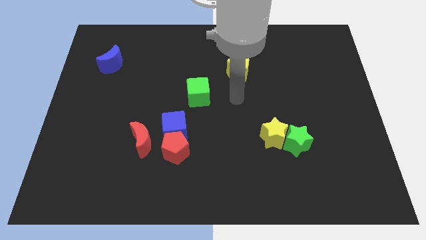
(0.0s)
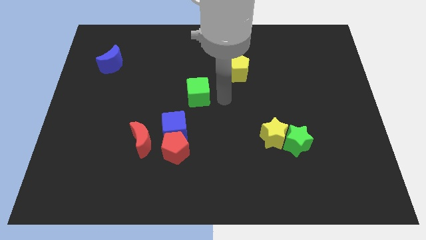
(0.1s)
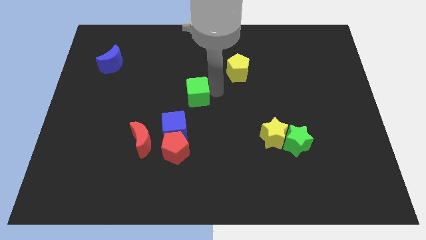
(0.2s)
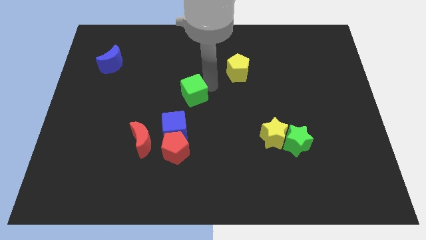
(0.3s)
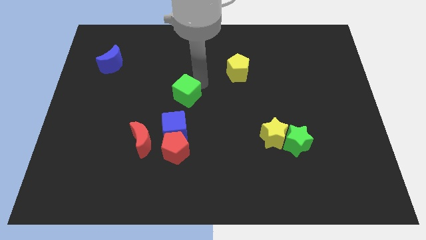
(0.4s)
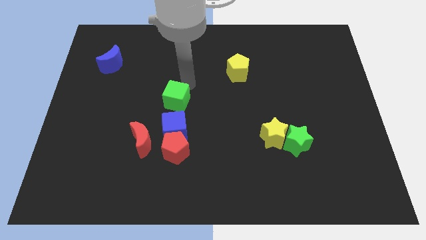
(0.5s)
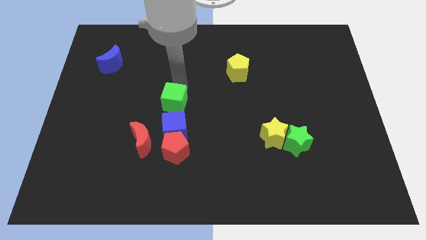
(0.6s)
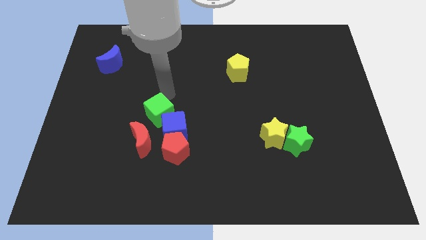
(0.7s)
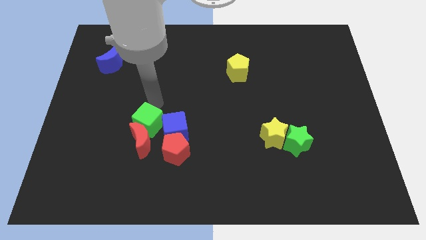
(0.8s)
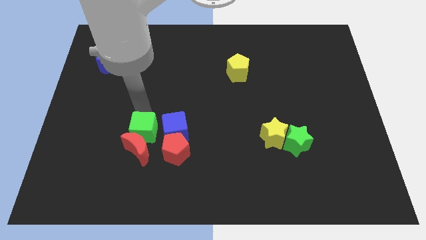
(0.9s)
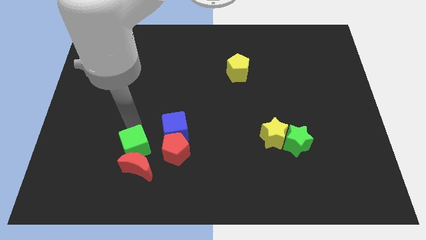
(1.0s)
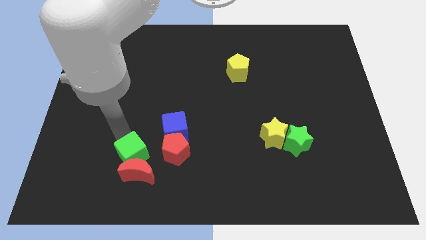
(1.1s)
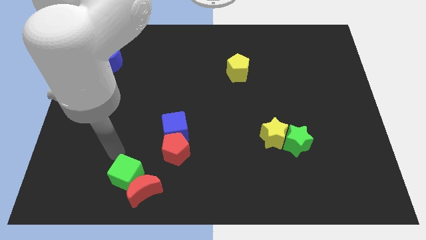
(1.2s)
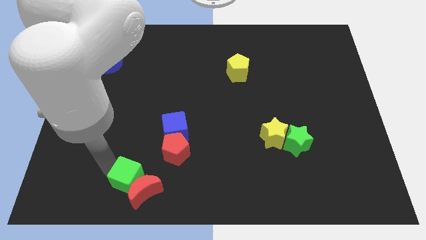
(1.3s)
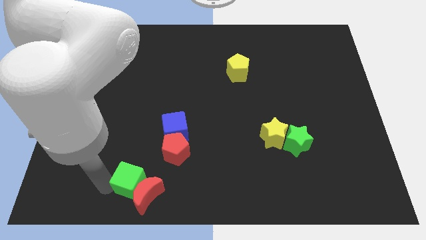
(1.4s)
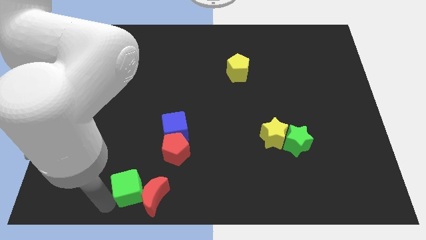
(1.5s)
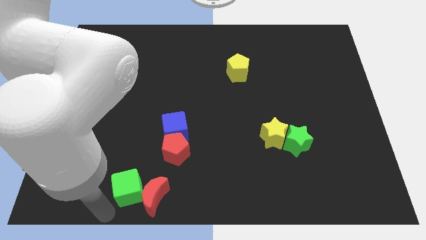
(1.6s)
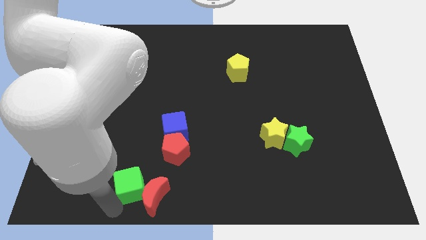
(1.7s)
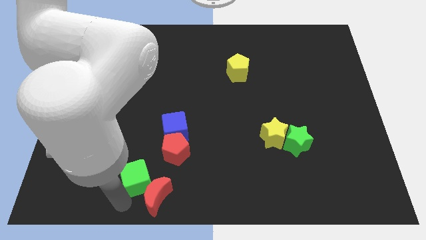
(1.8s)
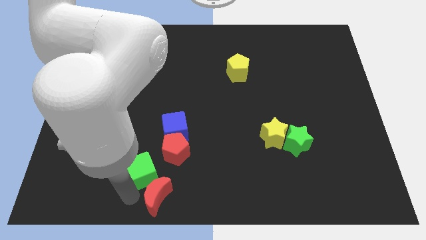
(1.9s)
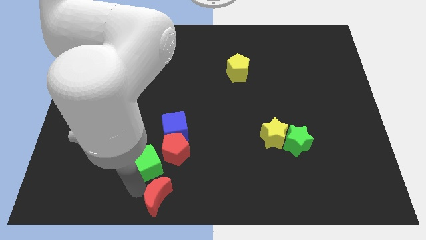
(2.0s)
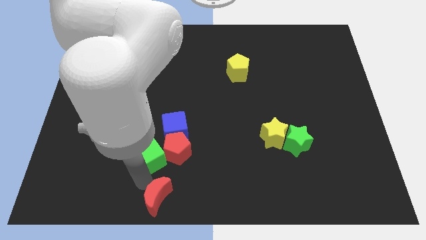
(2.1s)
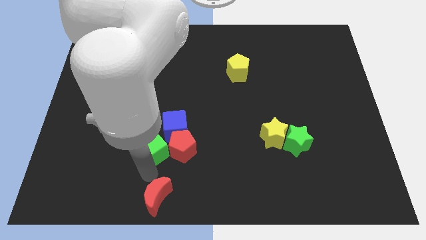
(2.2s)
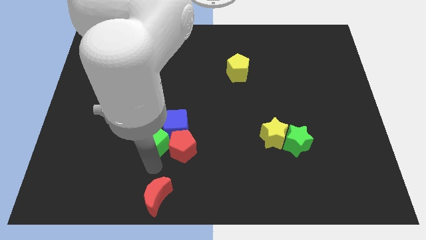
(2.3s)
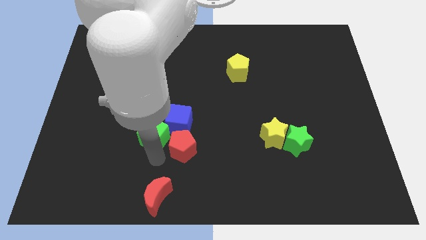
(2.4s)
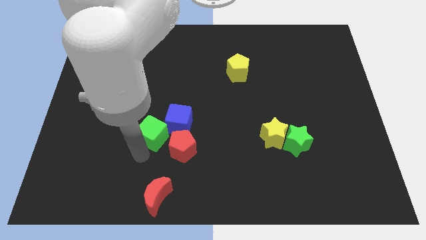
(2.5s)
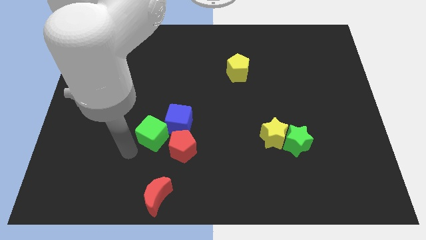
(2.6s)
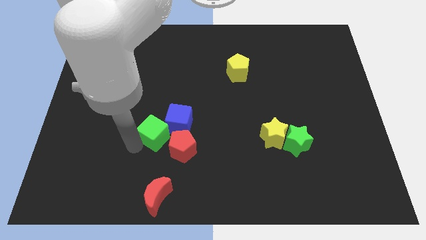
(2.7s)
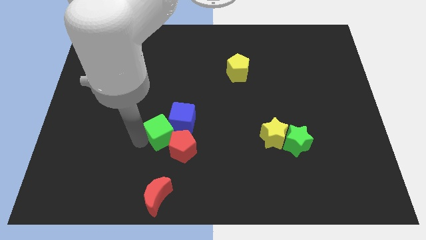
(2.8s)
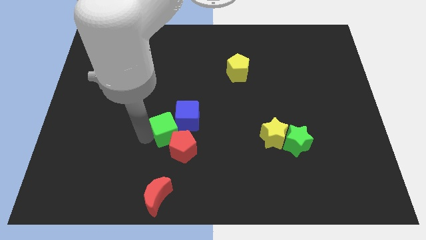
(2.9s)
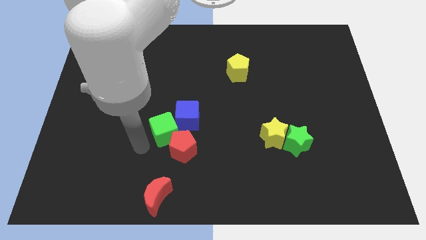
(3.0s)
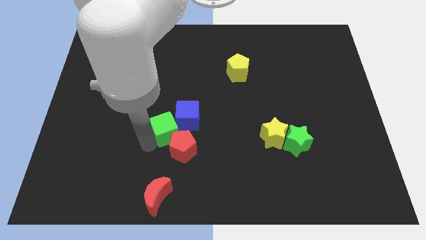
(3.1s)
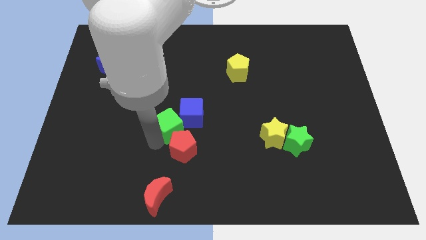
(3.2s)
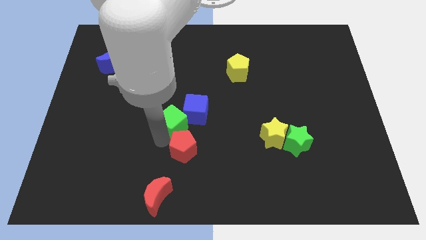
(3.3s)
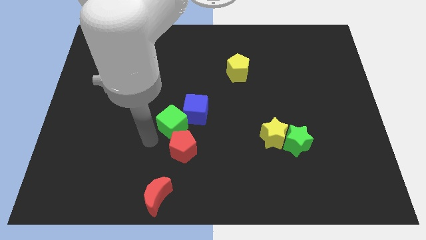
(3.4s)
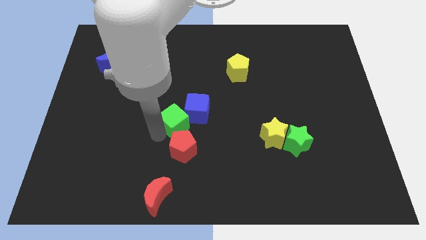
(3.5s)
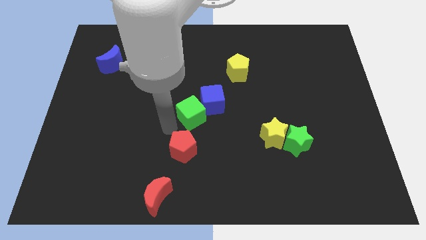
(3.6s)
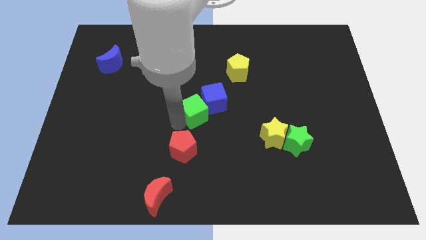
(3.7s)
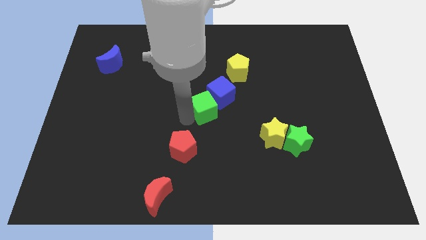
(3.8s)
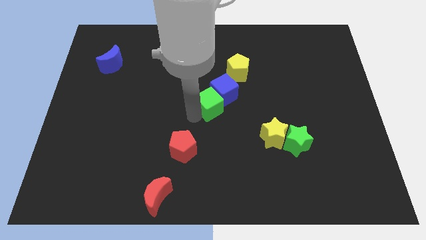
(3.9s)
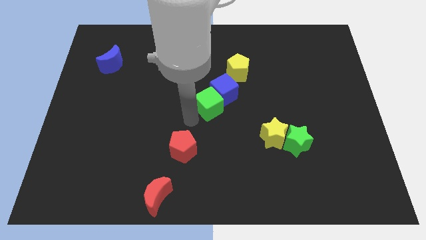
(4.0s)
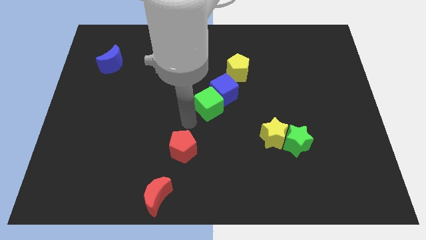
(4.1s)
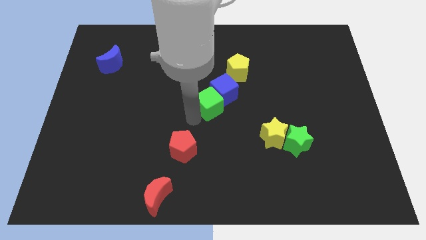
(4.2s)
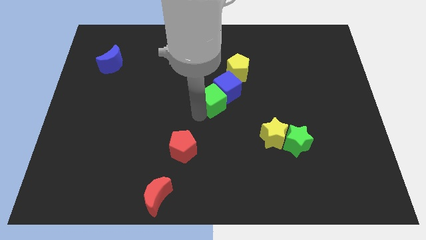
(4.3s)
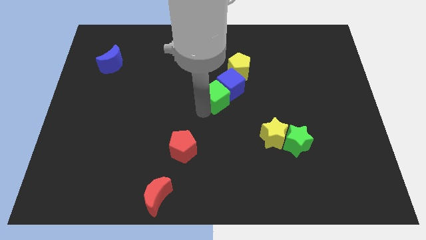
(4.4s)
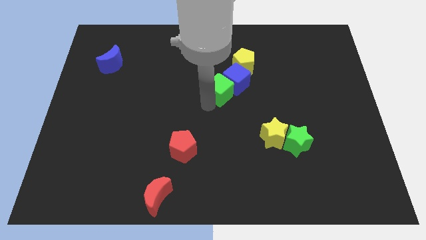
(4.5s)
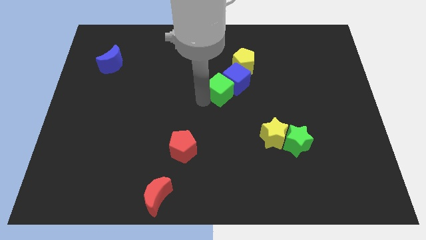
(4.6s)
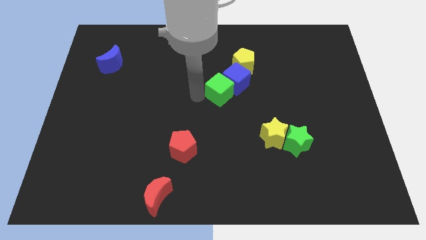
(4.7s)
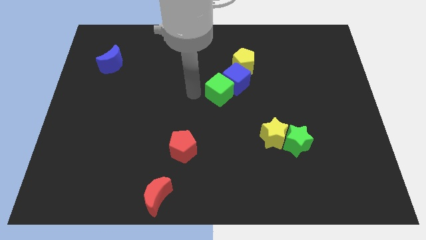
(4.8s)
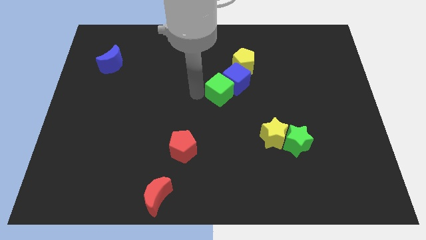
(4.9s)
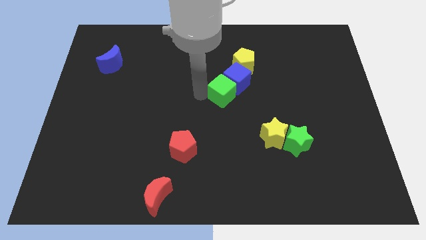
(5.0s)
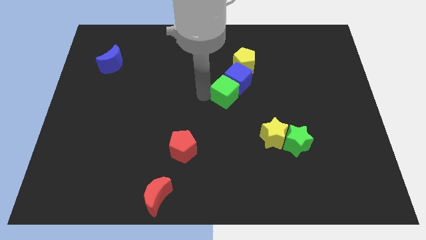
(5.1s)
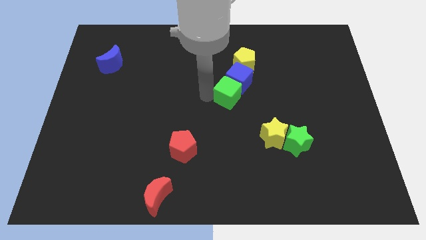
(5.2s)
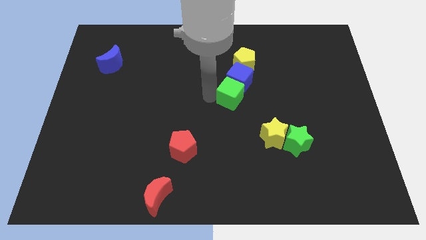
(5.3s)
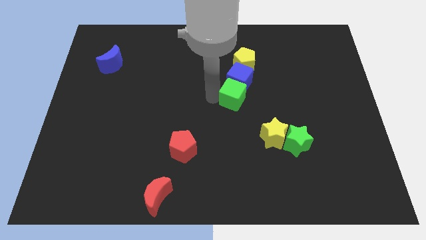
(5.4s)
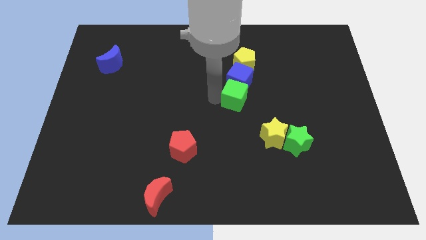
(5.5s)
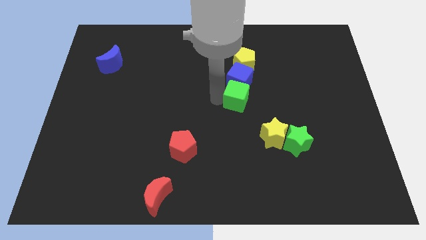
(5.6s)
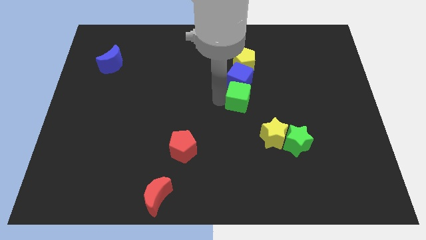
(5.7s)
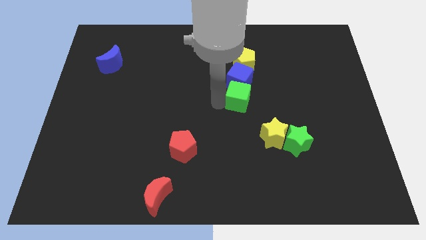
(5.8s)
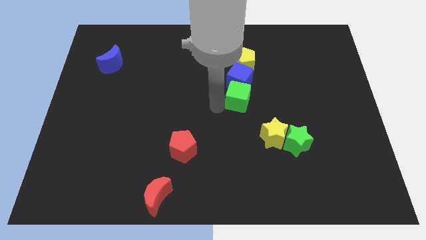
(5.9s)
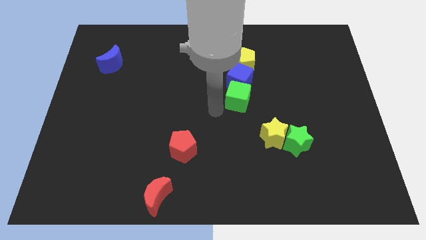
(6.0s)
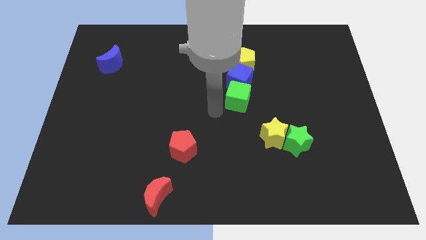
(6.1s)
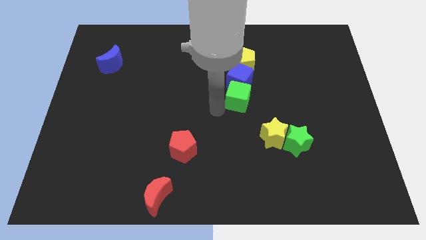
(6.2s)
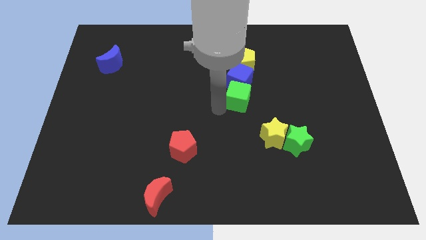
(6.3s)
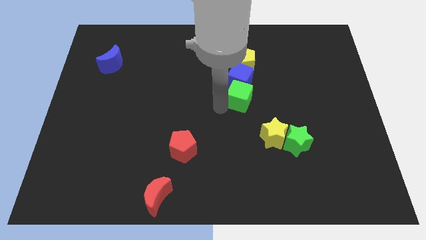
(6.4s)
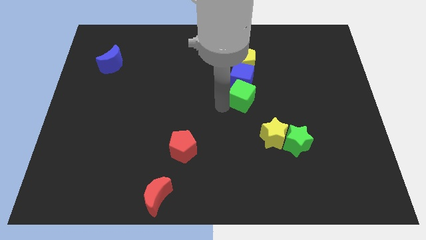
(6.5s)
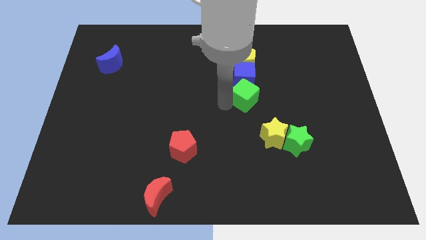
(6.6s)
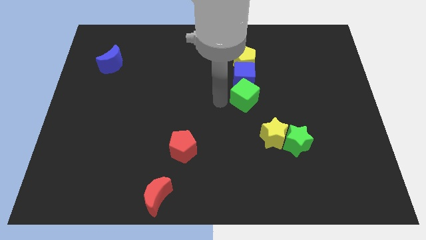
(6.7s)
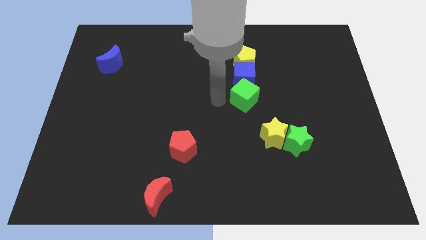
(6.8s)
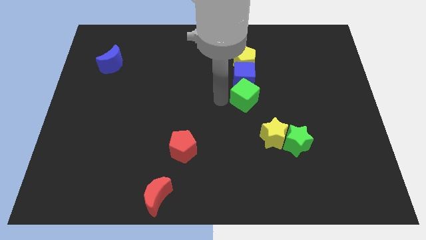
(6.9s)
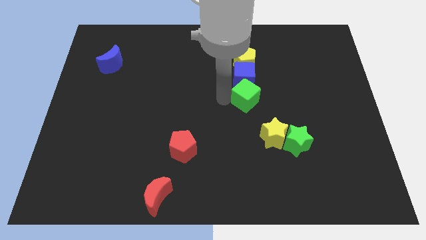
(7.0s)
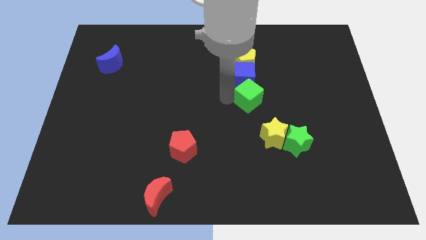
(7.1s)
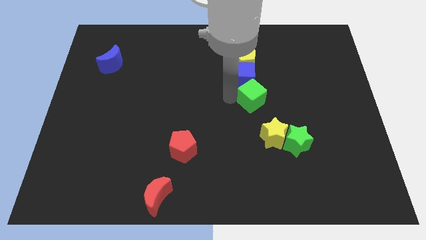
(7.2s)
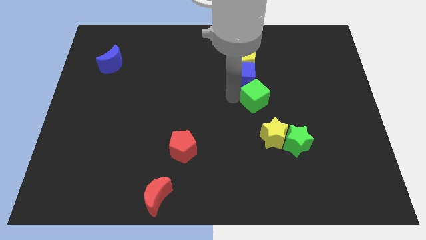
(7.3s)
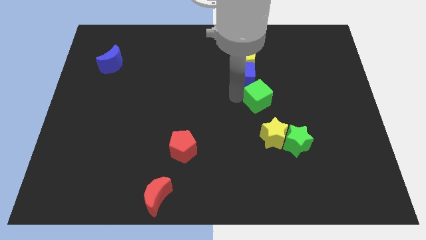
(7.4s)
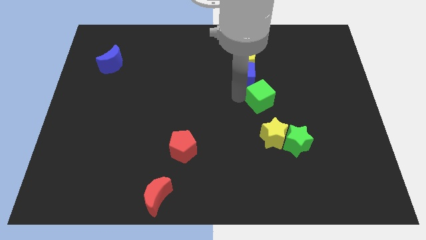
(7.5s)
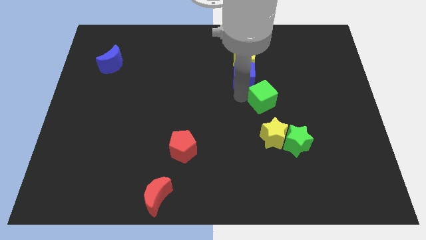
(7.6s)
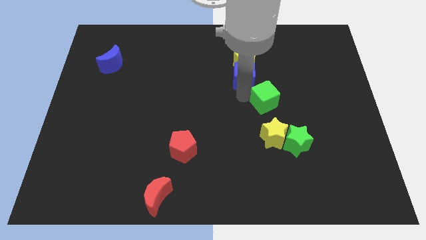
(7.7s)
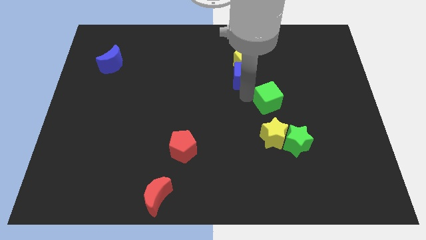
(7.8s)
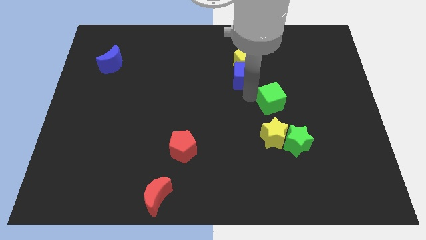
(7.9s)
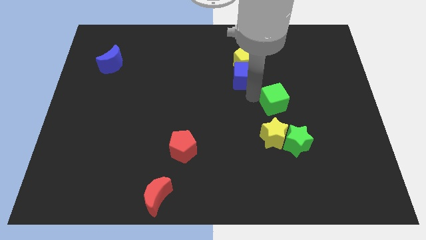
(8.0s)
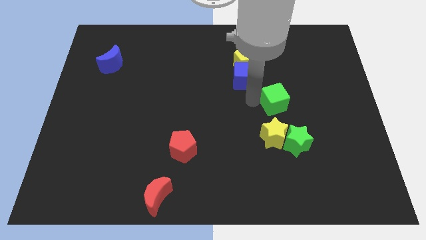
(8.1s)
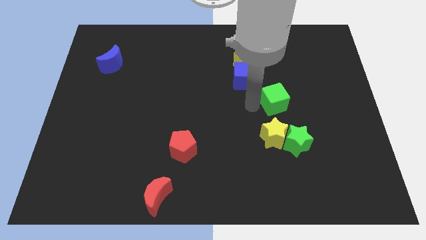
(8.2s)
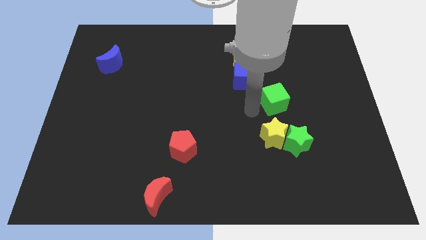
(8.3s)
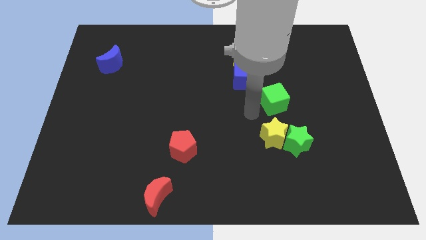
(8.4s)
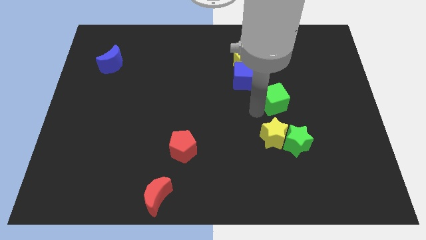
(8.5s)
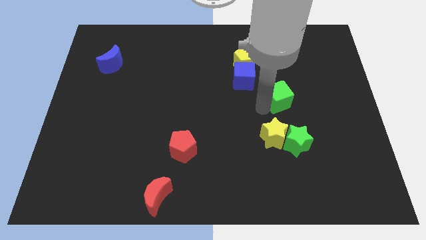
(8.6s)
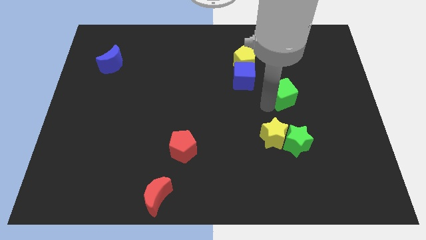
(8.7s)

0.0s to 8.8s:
slide the green cube to the right
